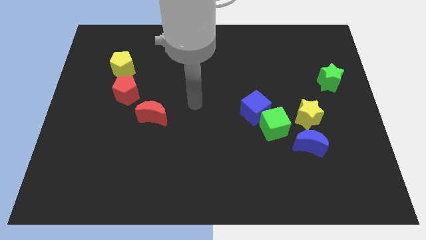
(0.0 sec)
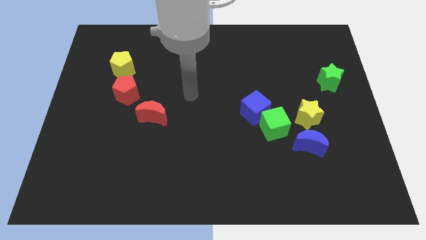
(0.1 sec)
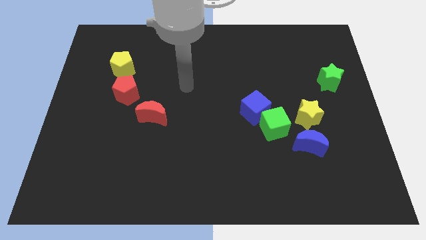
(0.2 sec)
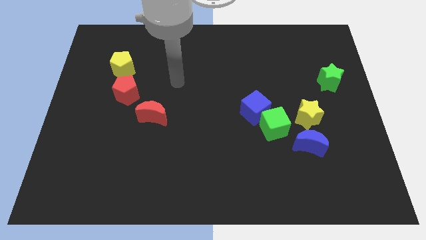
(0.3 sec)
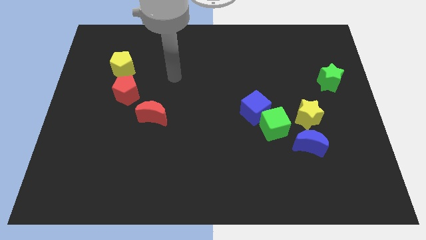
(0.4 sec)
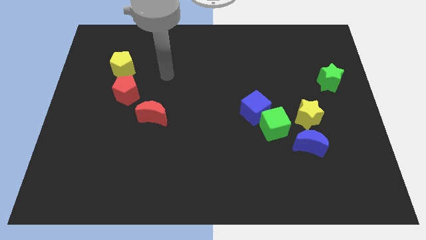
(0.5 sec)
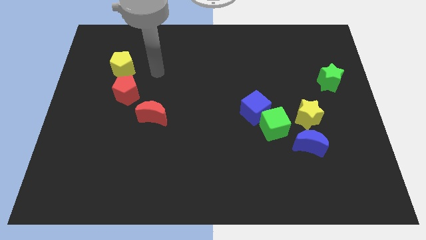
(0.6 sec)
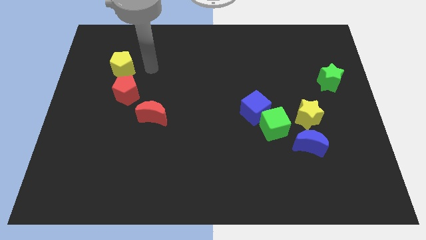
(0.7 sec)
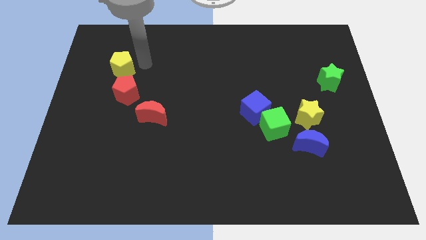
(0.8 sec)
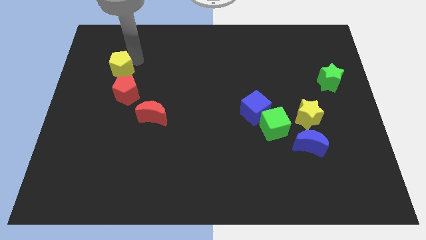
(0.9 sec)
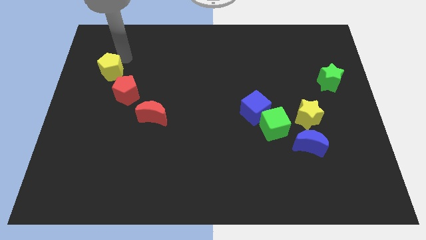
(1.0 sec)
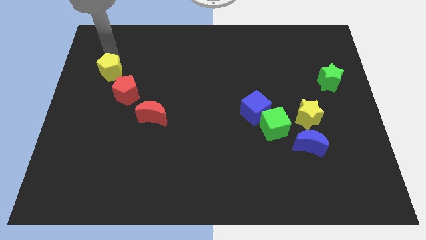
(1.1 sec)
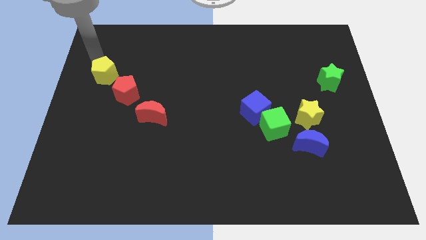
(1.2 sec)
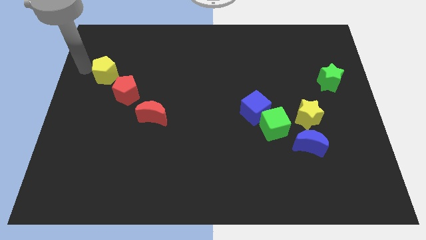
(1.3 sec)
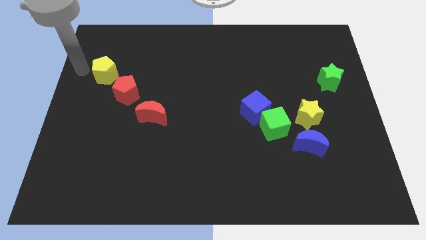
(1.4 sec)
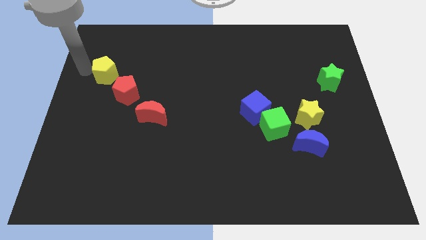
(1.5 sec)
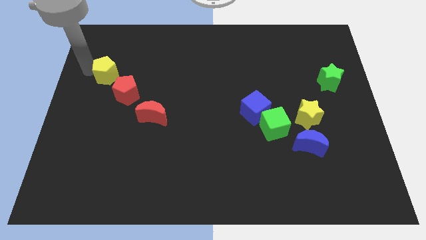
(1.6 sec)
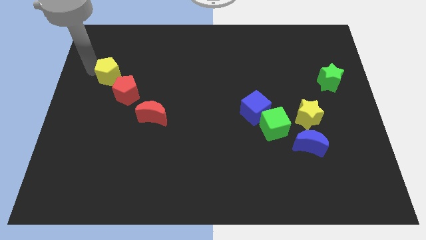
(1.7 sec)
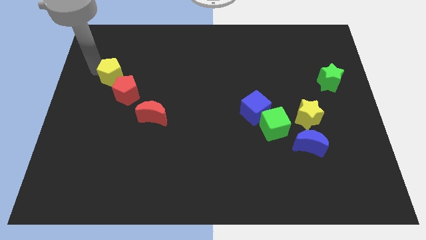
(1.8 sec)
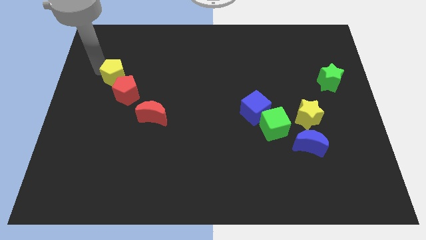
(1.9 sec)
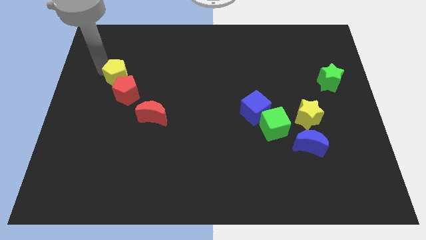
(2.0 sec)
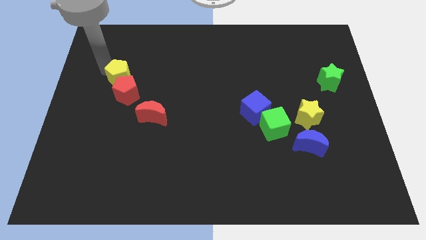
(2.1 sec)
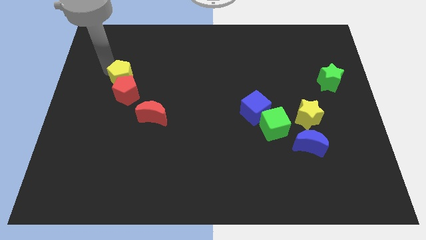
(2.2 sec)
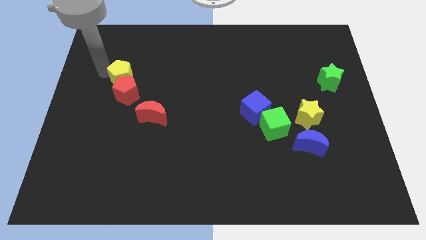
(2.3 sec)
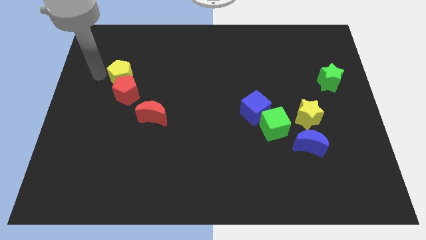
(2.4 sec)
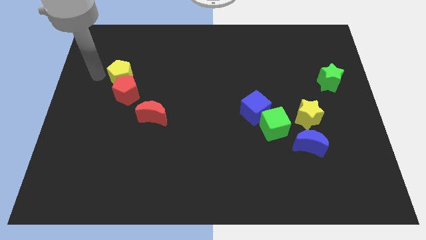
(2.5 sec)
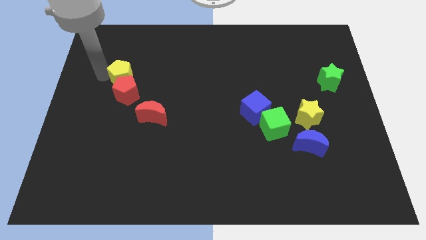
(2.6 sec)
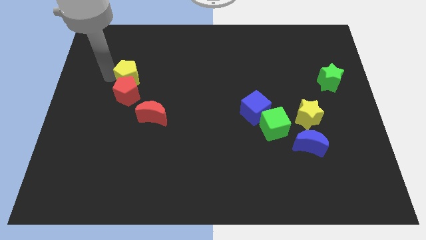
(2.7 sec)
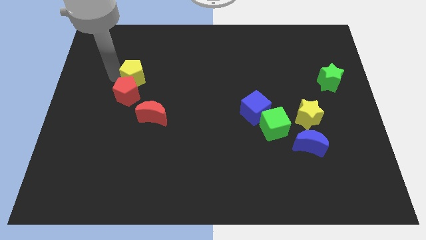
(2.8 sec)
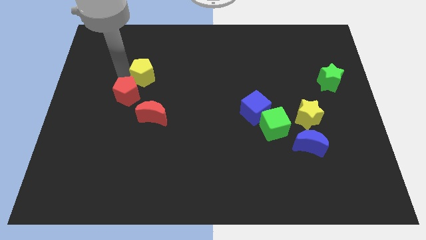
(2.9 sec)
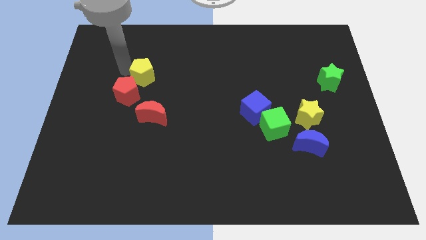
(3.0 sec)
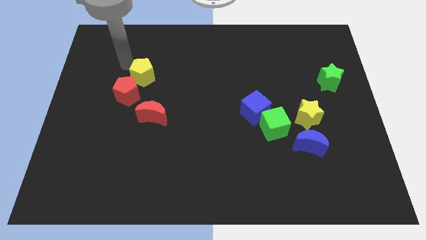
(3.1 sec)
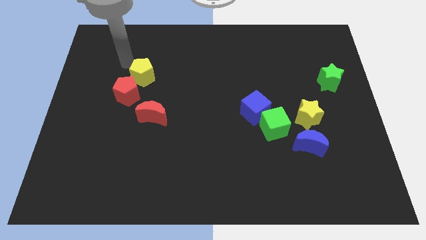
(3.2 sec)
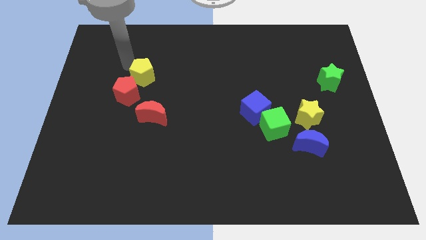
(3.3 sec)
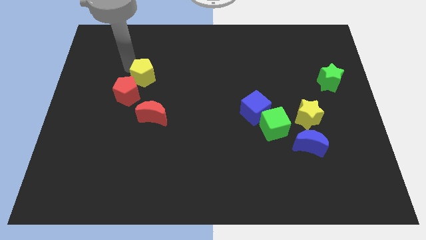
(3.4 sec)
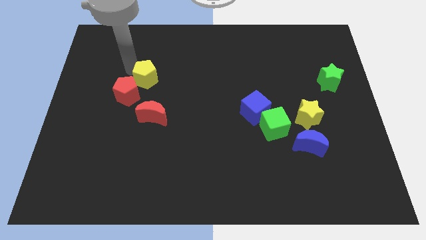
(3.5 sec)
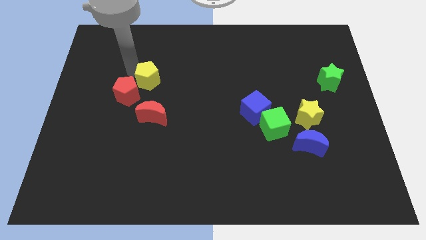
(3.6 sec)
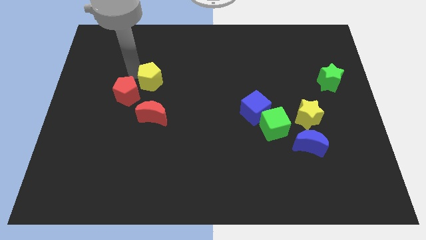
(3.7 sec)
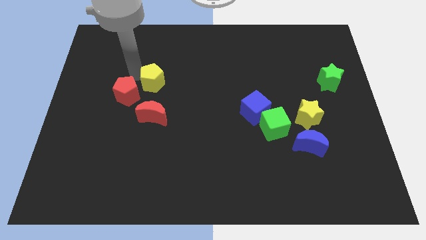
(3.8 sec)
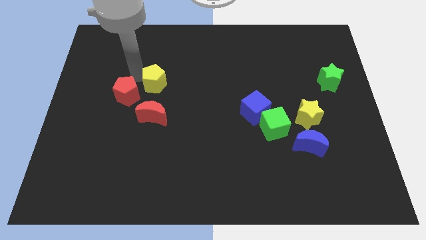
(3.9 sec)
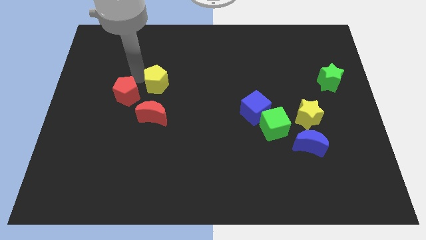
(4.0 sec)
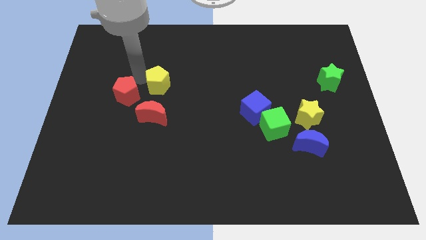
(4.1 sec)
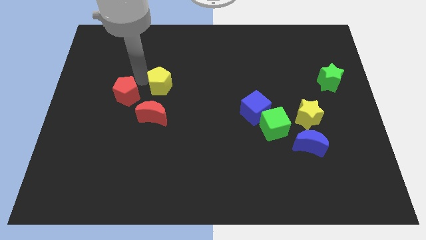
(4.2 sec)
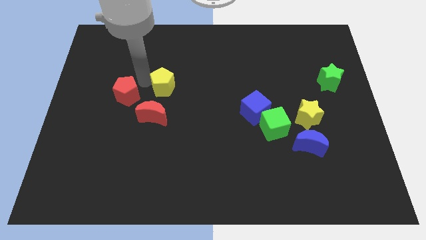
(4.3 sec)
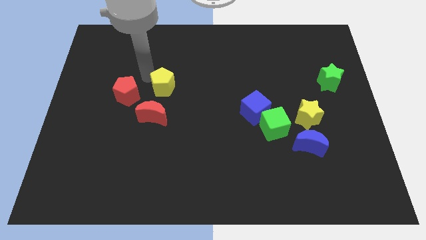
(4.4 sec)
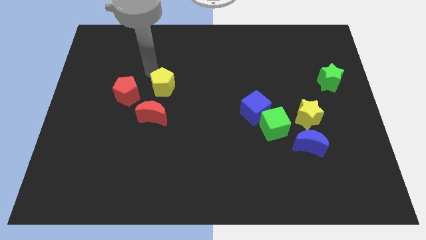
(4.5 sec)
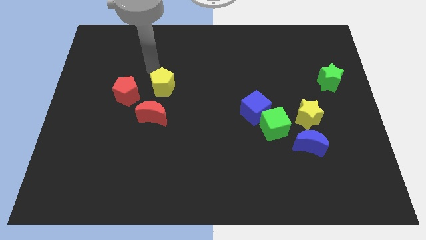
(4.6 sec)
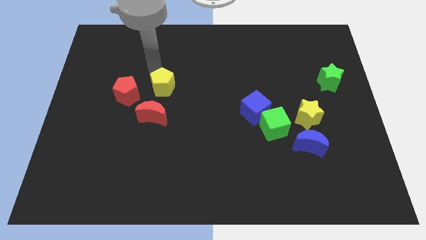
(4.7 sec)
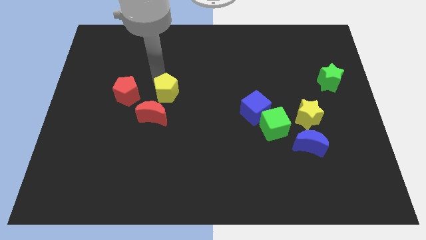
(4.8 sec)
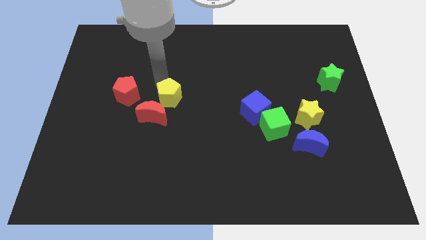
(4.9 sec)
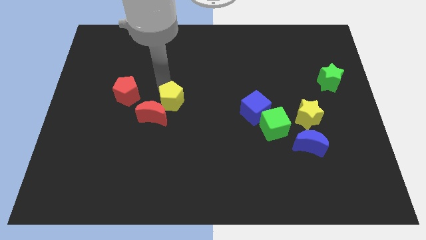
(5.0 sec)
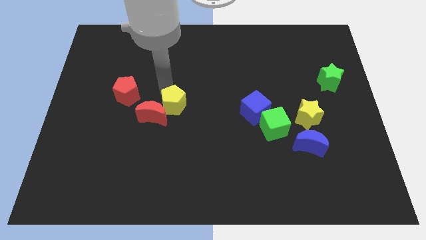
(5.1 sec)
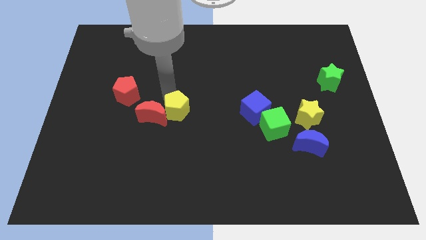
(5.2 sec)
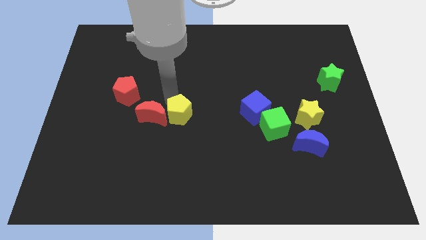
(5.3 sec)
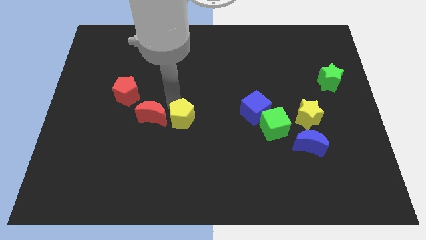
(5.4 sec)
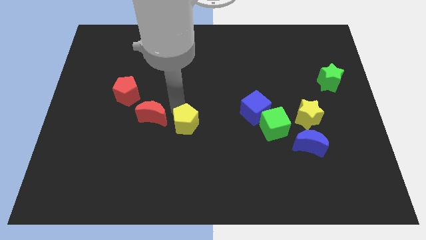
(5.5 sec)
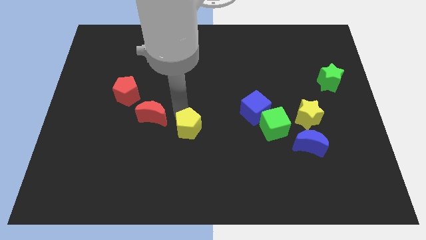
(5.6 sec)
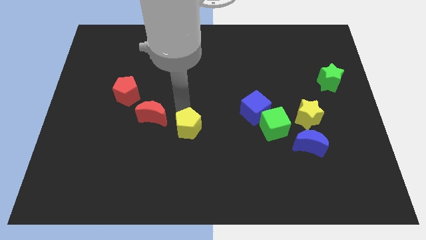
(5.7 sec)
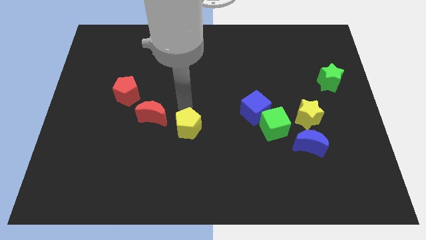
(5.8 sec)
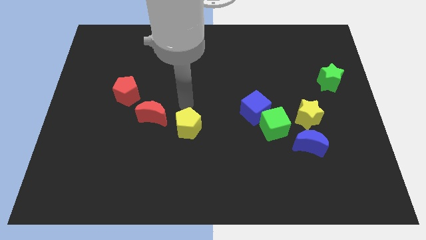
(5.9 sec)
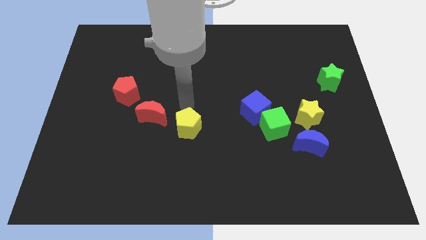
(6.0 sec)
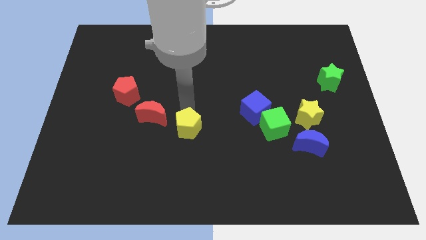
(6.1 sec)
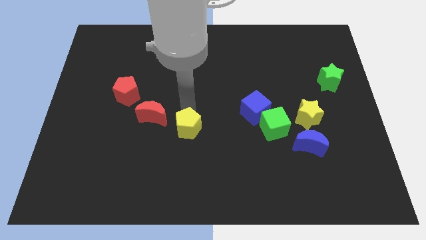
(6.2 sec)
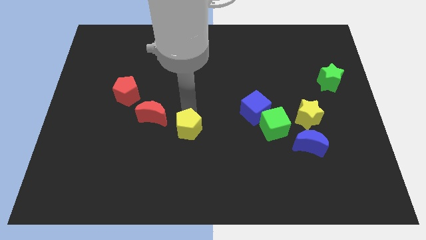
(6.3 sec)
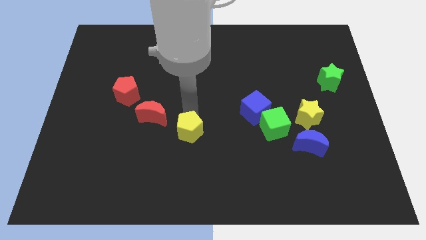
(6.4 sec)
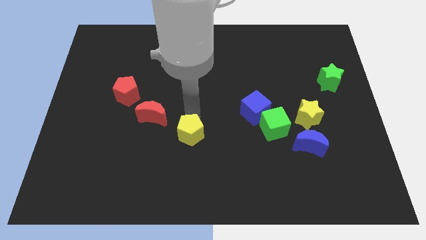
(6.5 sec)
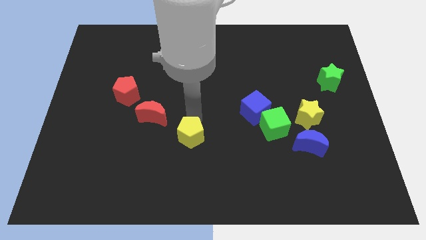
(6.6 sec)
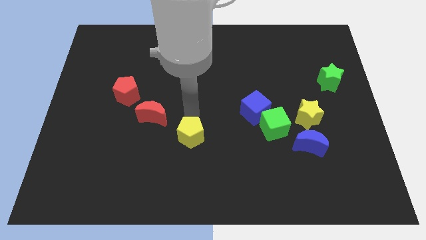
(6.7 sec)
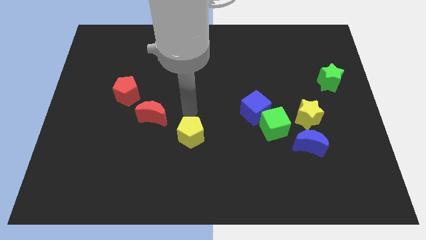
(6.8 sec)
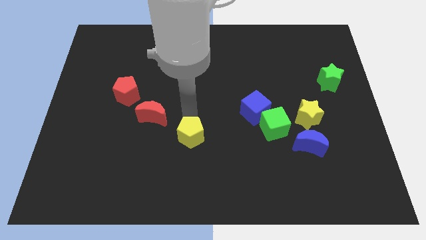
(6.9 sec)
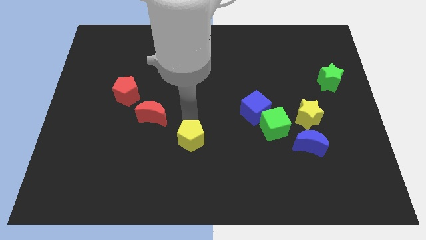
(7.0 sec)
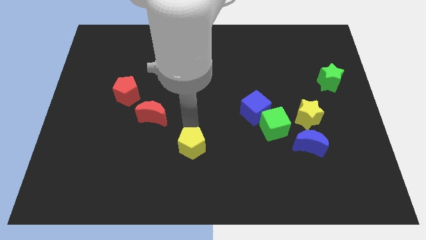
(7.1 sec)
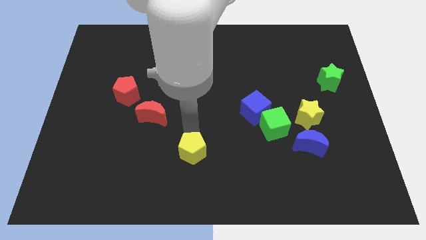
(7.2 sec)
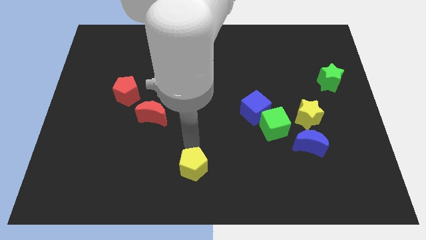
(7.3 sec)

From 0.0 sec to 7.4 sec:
slide the yellow pentagon to the bottom side
